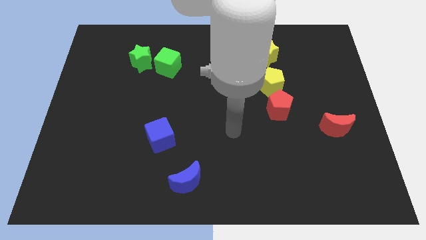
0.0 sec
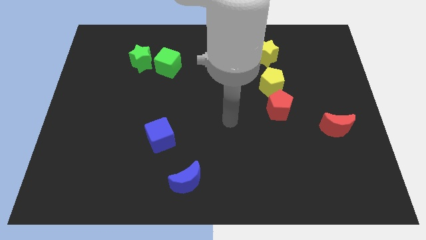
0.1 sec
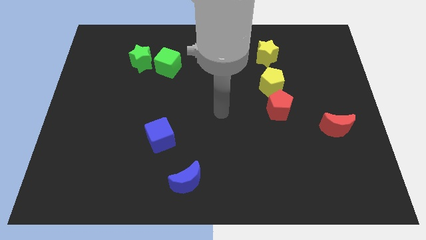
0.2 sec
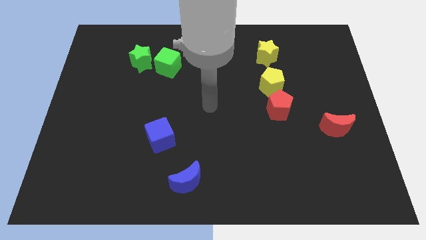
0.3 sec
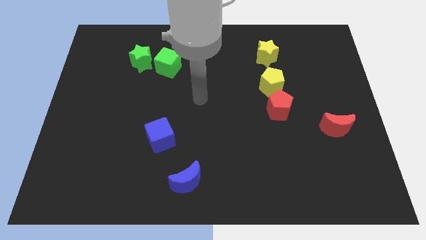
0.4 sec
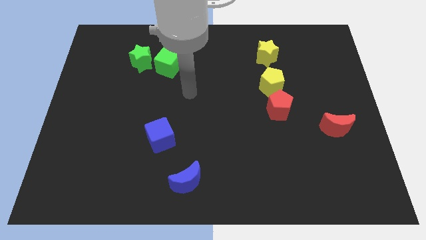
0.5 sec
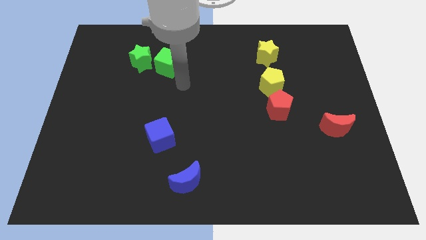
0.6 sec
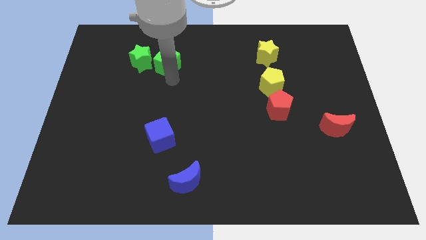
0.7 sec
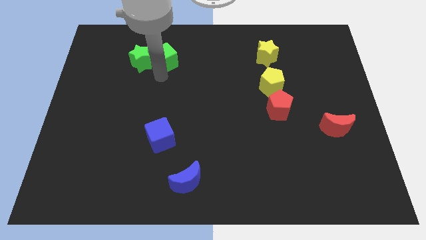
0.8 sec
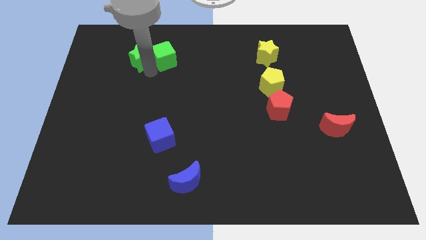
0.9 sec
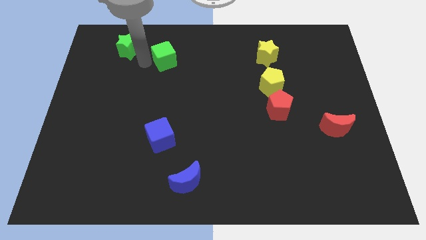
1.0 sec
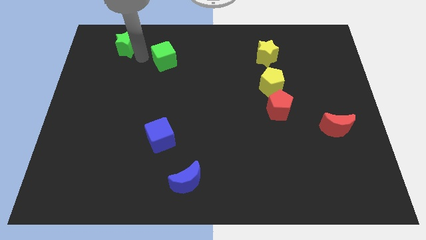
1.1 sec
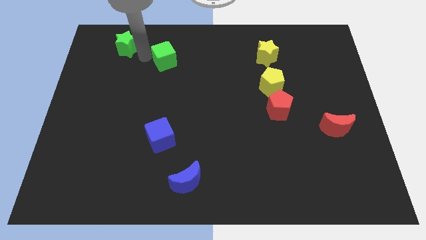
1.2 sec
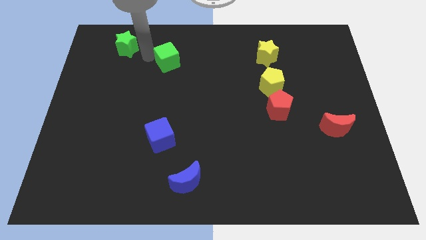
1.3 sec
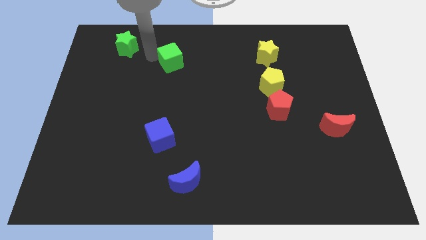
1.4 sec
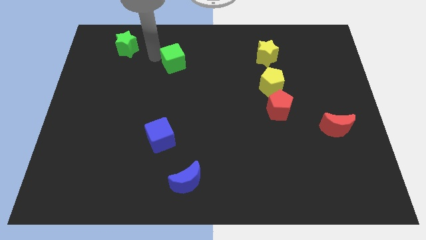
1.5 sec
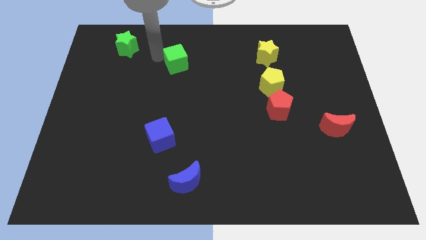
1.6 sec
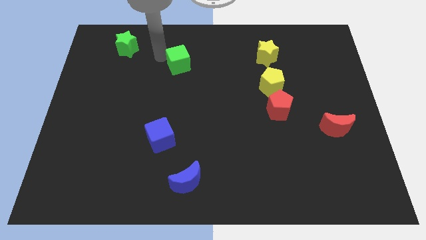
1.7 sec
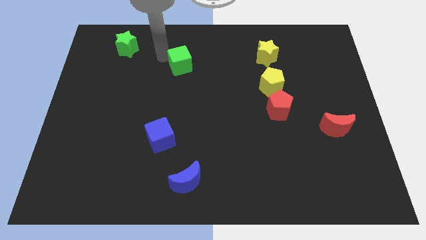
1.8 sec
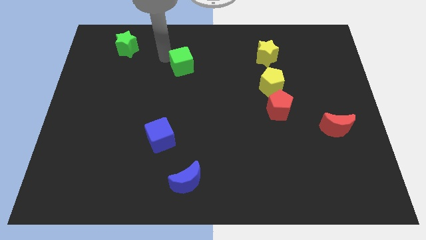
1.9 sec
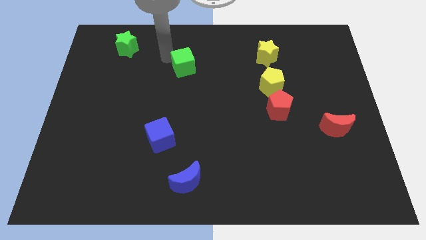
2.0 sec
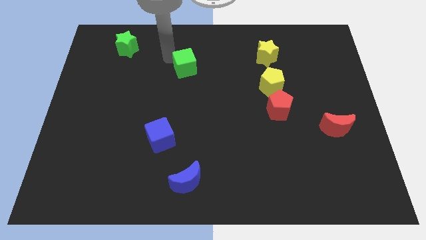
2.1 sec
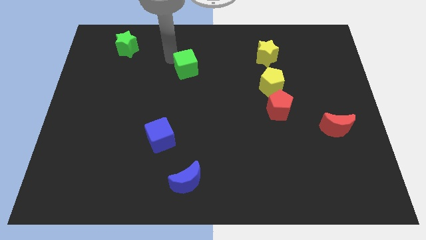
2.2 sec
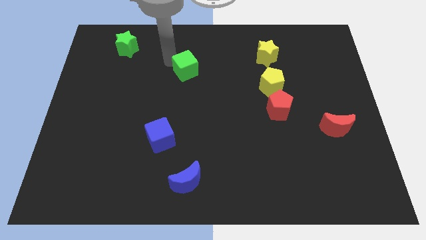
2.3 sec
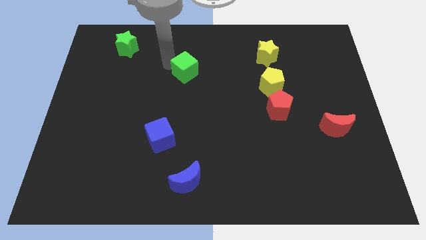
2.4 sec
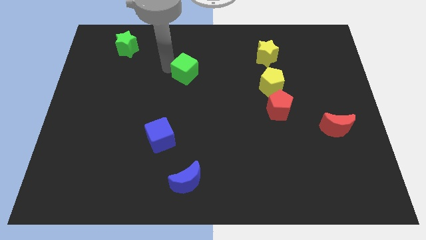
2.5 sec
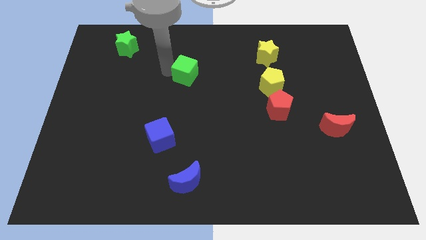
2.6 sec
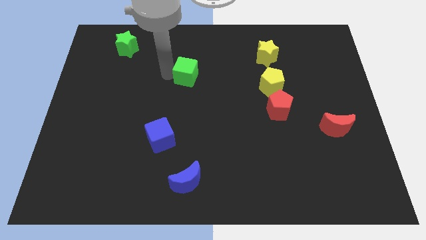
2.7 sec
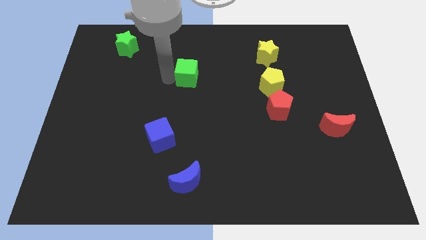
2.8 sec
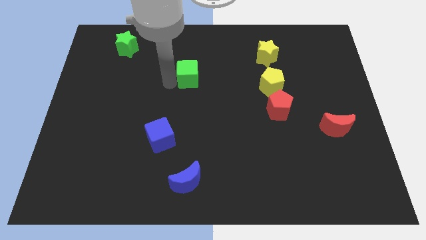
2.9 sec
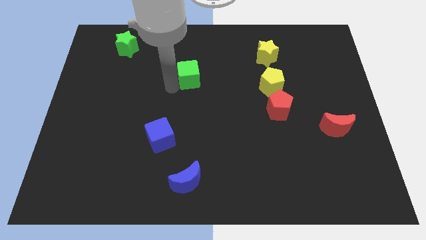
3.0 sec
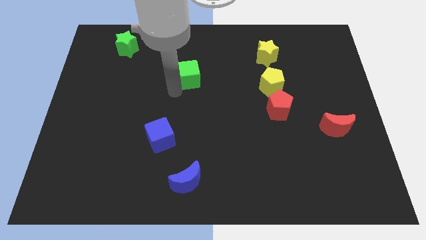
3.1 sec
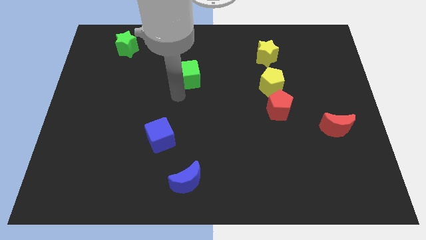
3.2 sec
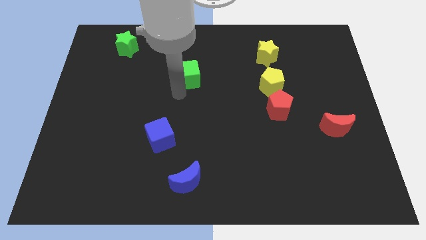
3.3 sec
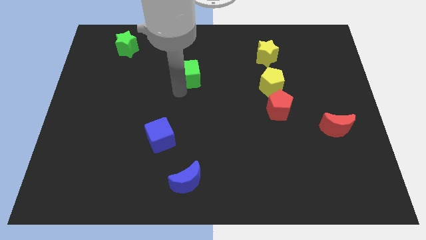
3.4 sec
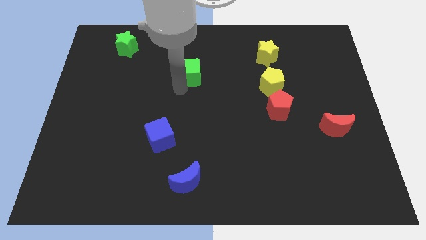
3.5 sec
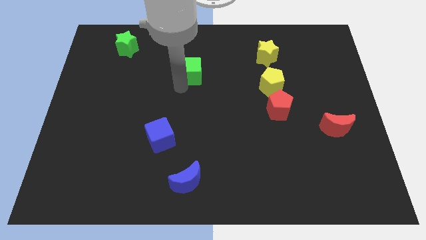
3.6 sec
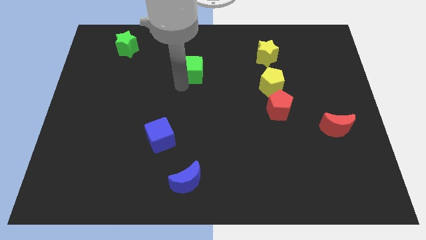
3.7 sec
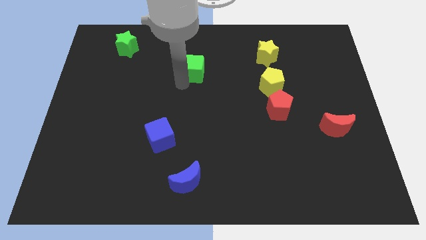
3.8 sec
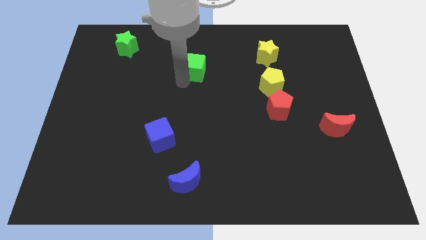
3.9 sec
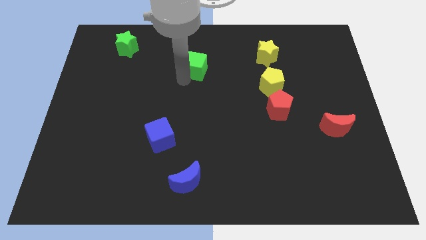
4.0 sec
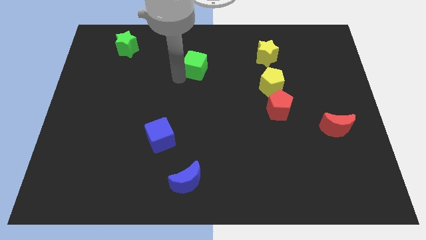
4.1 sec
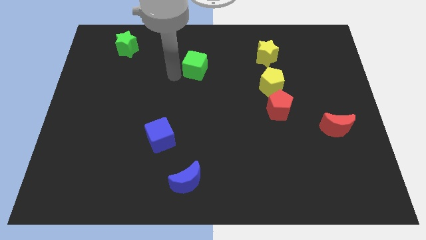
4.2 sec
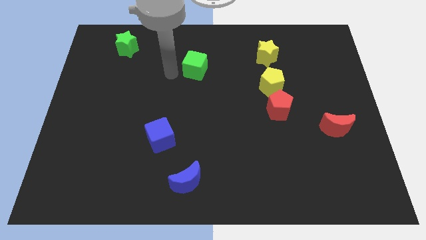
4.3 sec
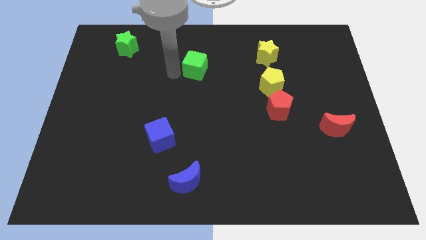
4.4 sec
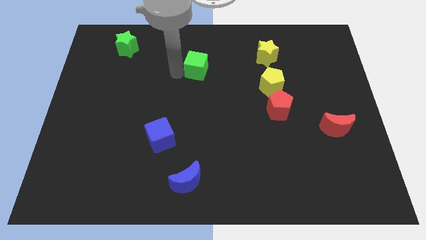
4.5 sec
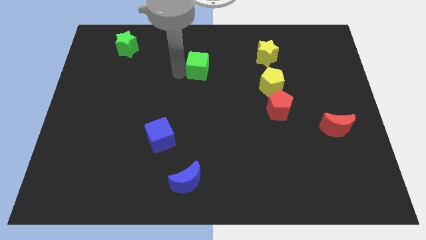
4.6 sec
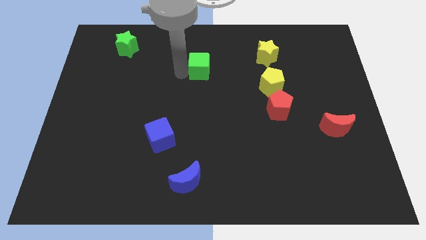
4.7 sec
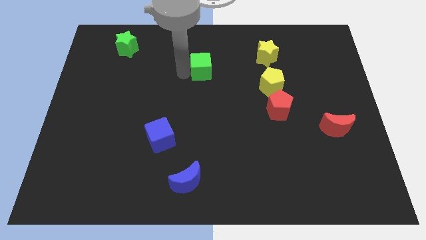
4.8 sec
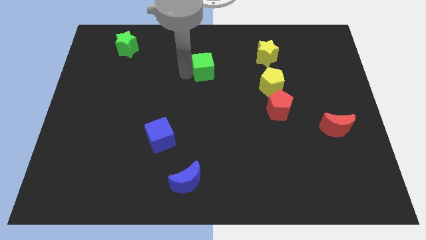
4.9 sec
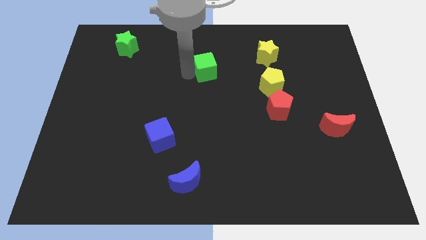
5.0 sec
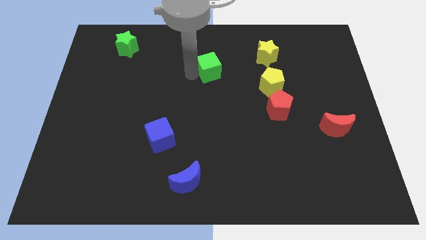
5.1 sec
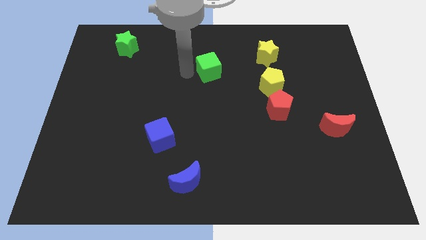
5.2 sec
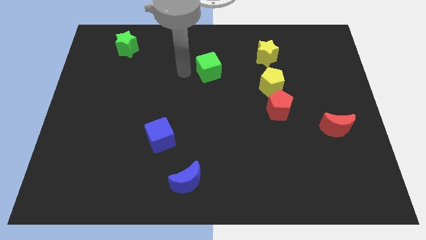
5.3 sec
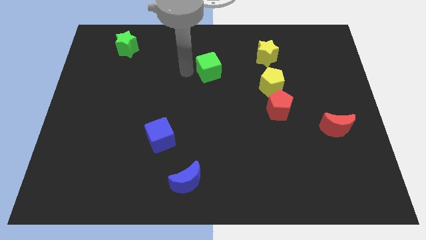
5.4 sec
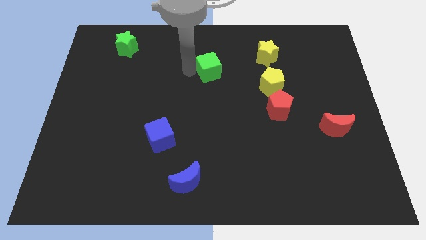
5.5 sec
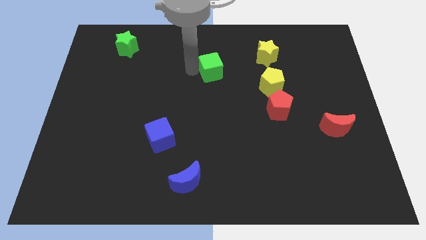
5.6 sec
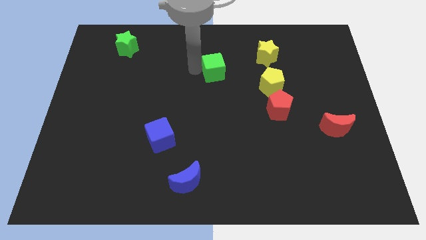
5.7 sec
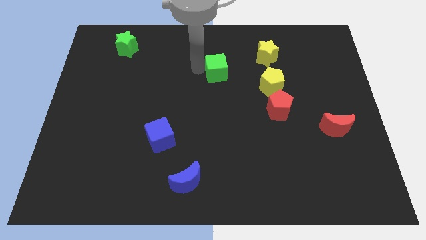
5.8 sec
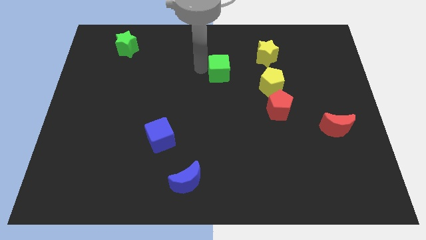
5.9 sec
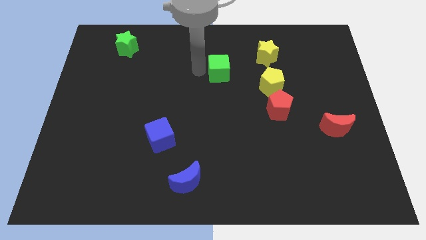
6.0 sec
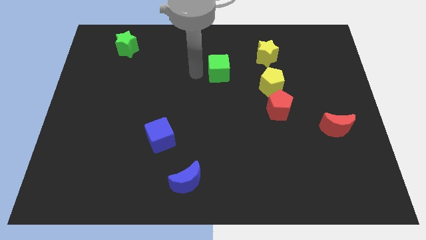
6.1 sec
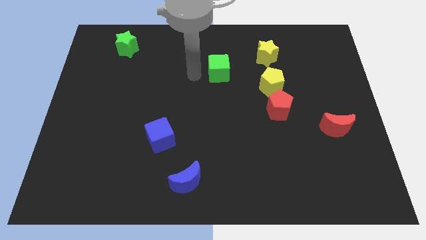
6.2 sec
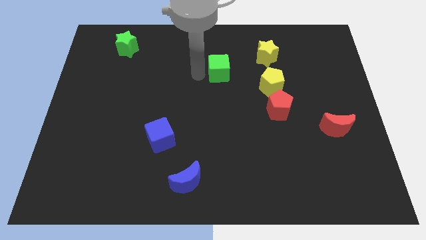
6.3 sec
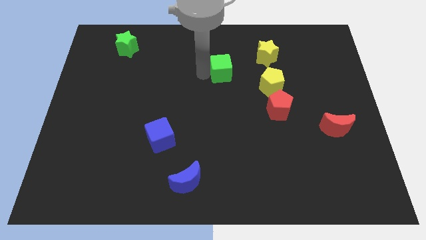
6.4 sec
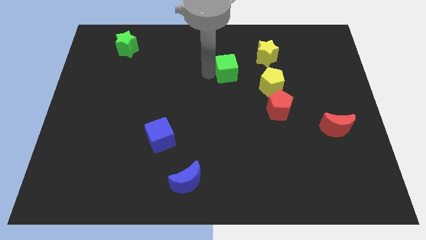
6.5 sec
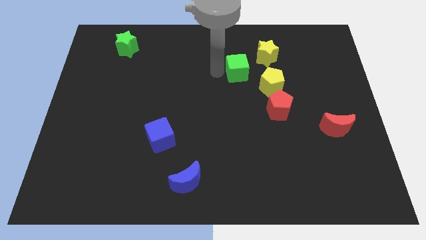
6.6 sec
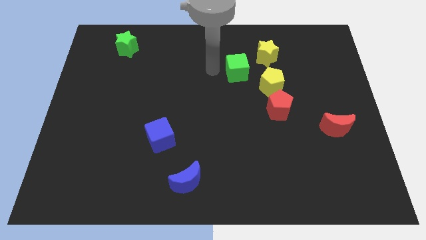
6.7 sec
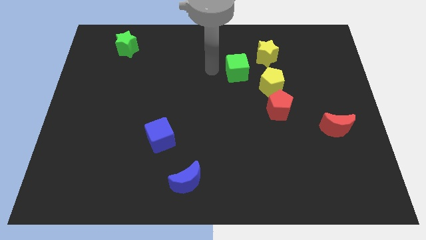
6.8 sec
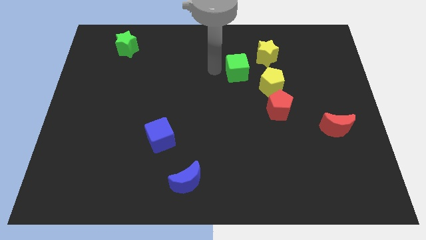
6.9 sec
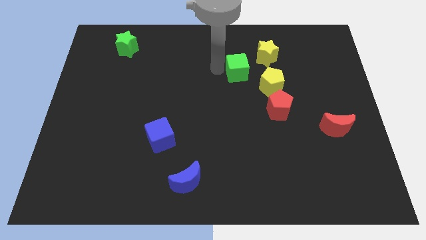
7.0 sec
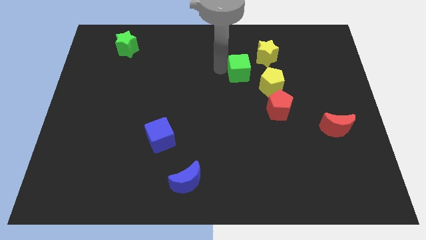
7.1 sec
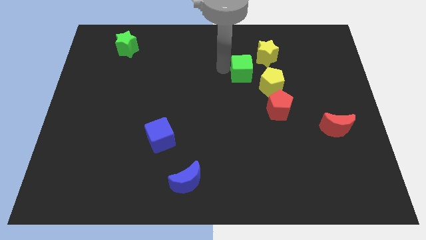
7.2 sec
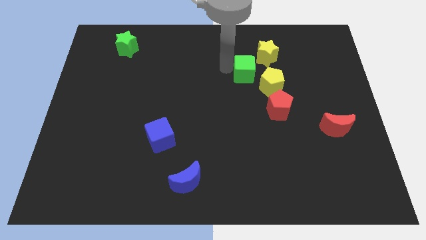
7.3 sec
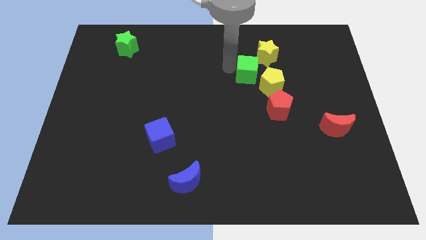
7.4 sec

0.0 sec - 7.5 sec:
move the green cube right

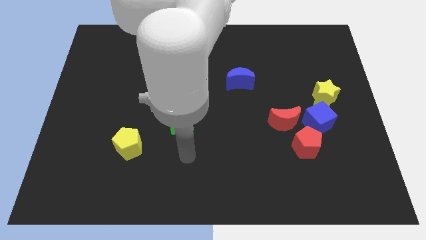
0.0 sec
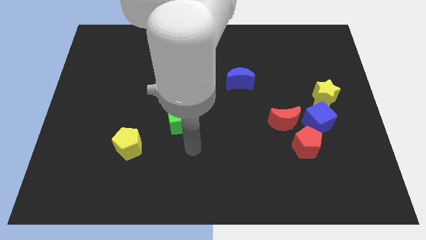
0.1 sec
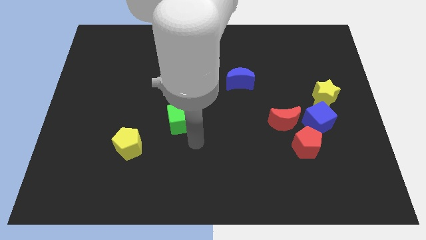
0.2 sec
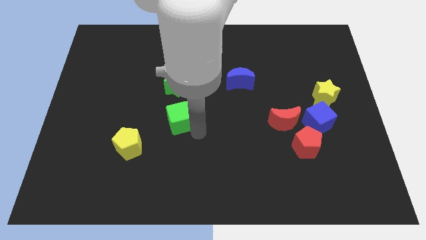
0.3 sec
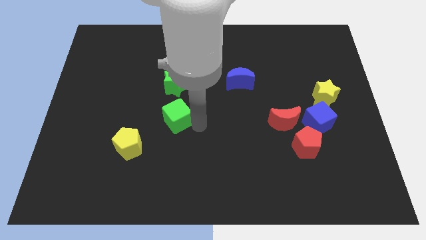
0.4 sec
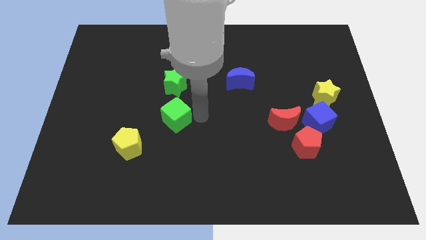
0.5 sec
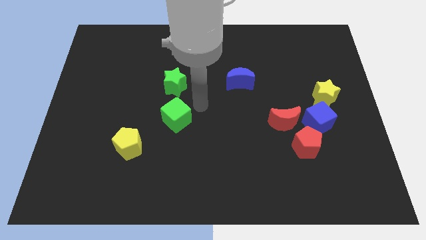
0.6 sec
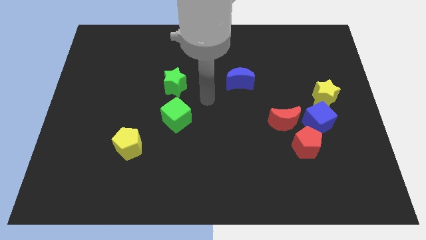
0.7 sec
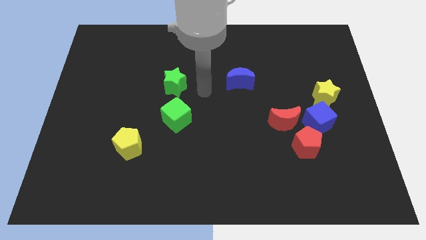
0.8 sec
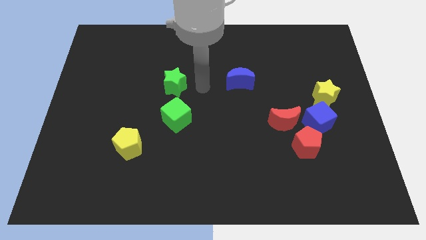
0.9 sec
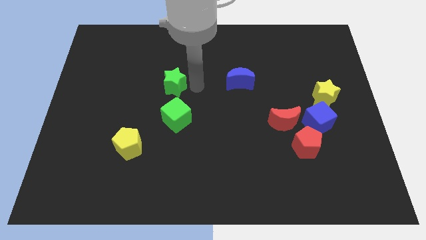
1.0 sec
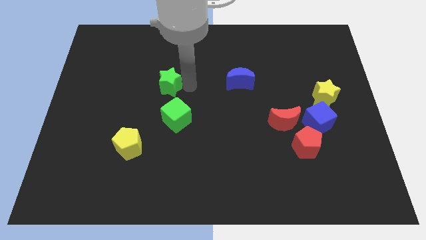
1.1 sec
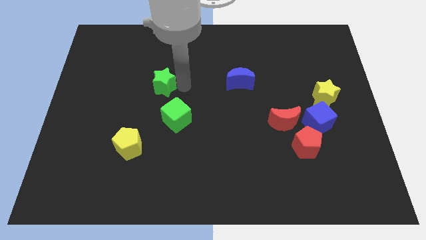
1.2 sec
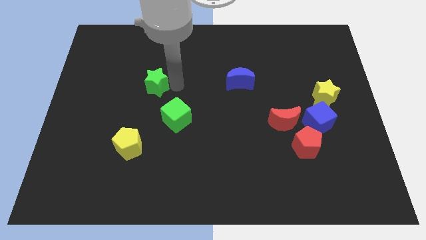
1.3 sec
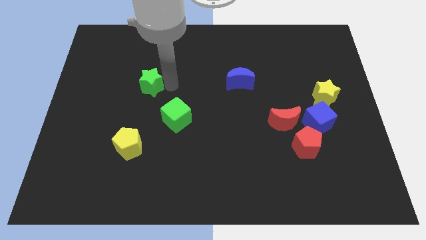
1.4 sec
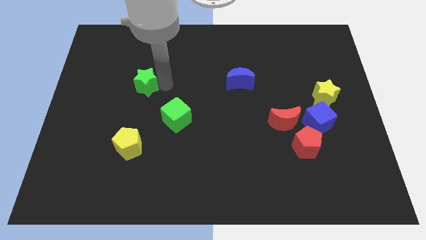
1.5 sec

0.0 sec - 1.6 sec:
slightly slide the green star left
